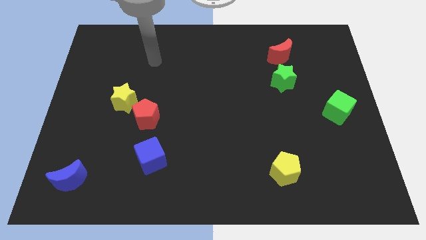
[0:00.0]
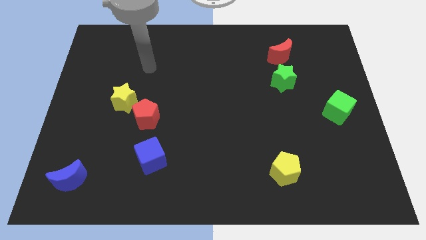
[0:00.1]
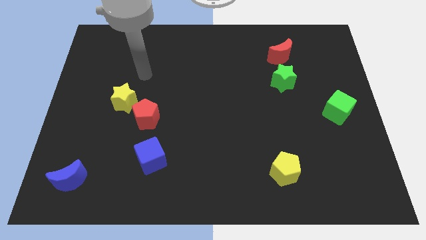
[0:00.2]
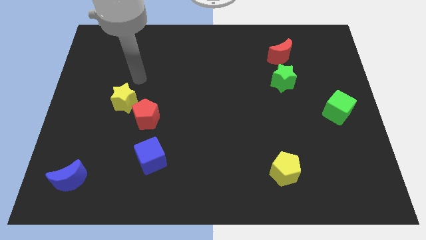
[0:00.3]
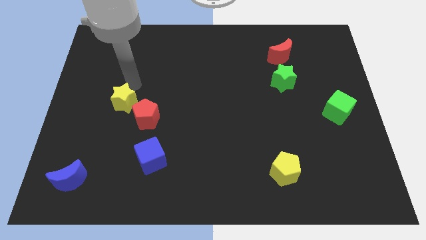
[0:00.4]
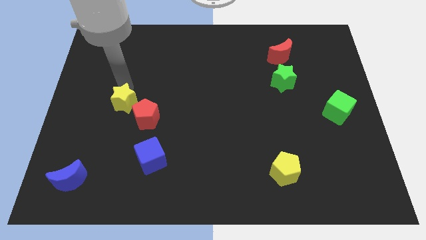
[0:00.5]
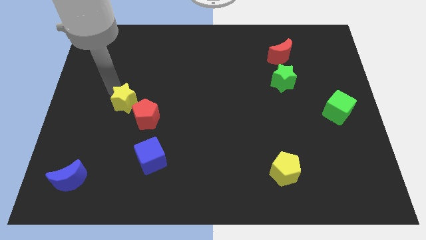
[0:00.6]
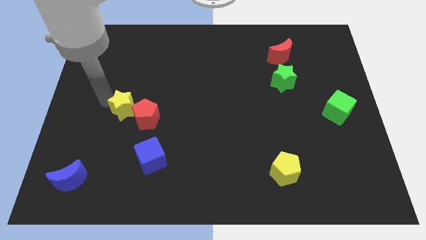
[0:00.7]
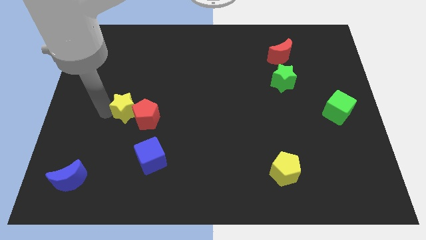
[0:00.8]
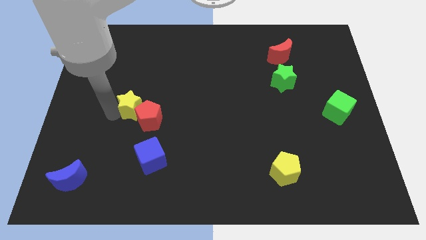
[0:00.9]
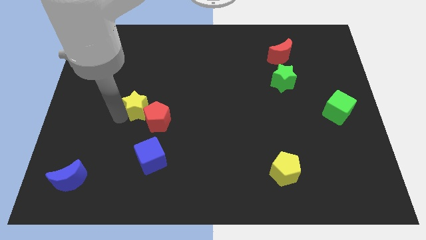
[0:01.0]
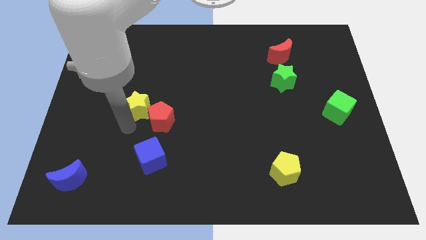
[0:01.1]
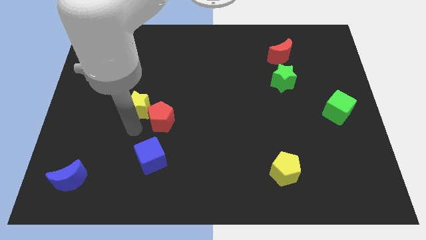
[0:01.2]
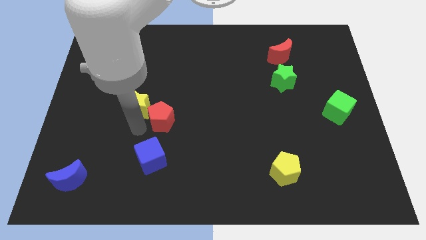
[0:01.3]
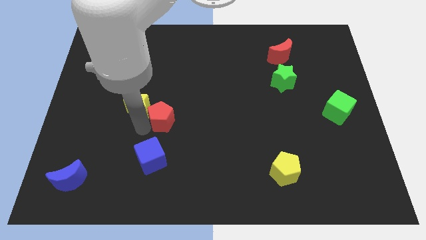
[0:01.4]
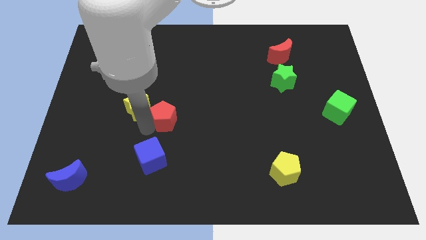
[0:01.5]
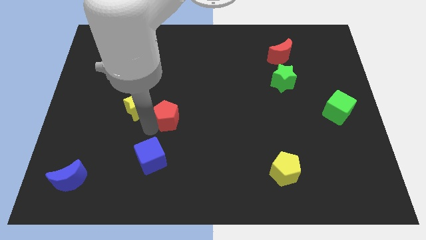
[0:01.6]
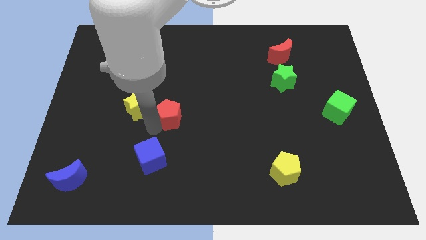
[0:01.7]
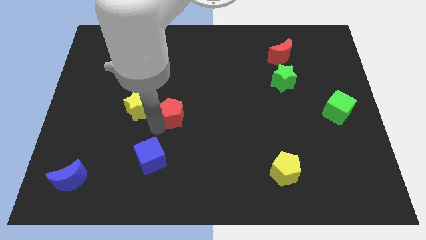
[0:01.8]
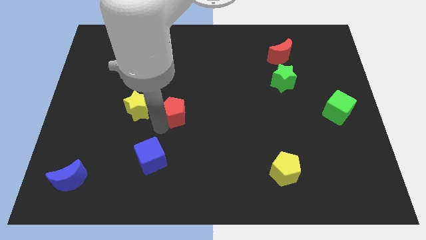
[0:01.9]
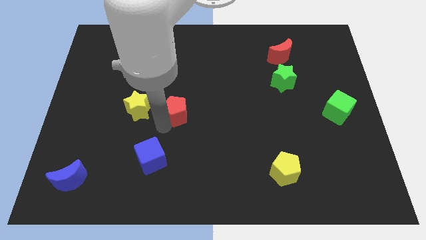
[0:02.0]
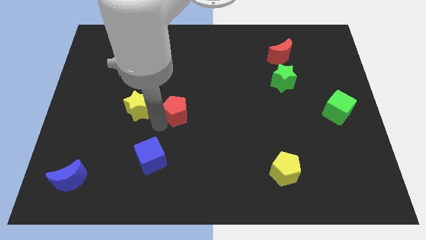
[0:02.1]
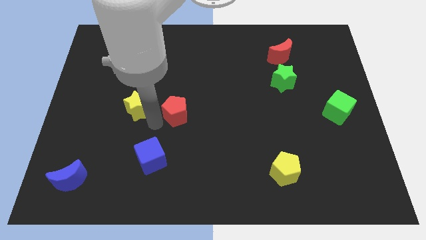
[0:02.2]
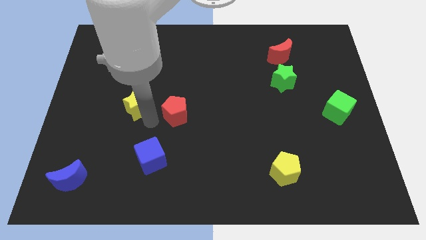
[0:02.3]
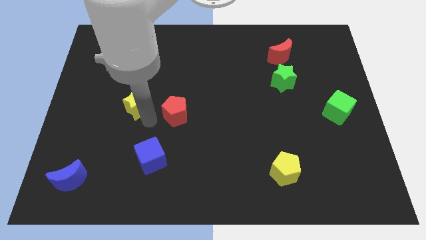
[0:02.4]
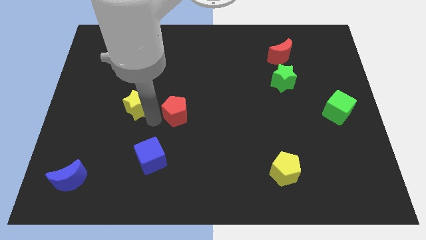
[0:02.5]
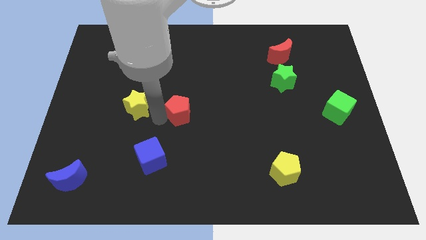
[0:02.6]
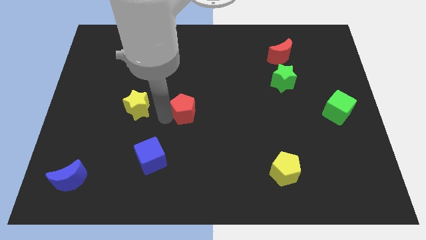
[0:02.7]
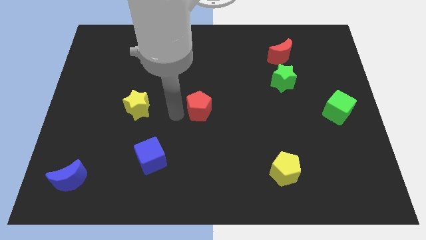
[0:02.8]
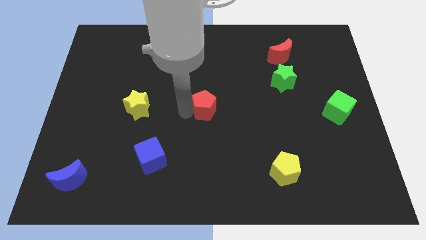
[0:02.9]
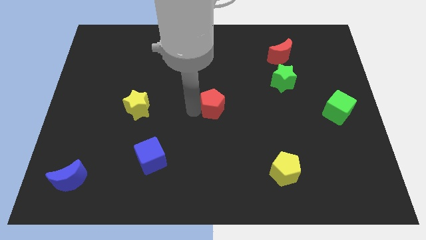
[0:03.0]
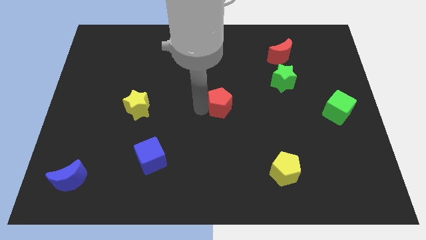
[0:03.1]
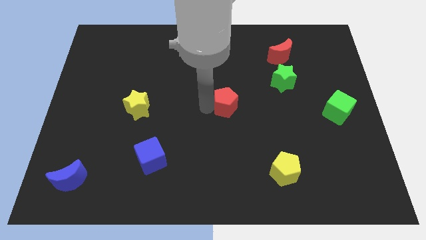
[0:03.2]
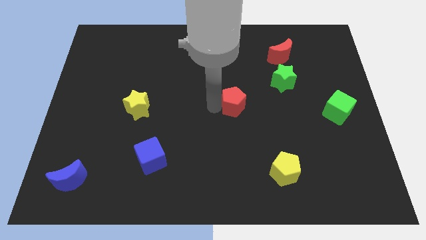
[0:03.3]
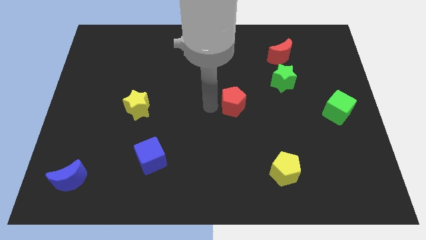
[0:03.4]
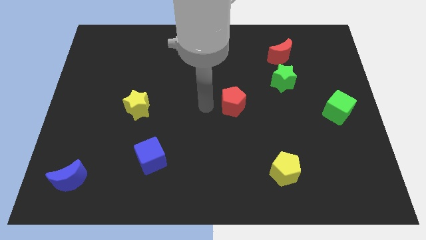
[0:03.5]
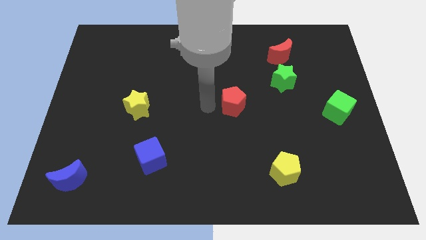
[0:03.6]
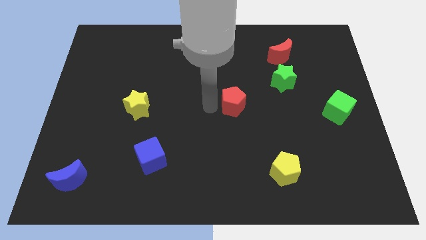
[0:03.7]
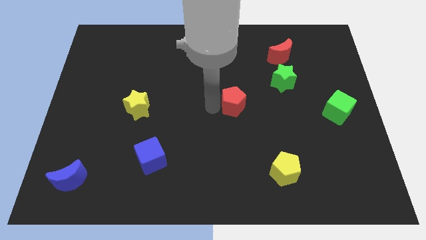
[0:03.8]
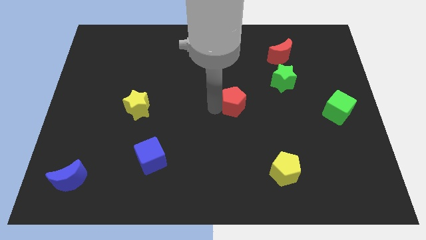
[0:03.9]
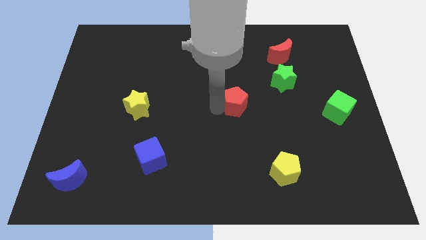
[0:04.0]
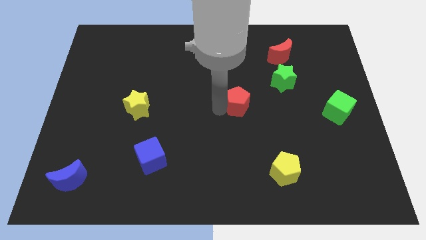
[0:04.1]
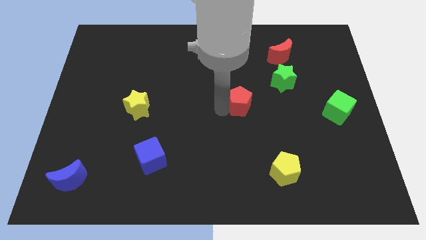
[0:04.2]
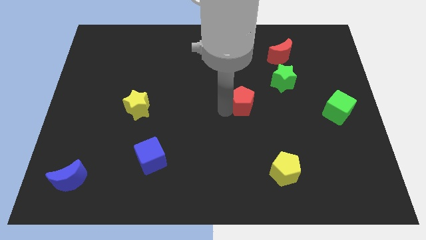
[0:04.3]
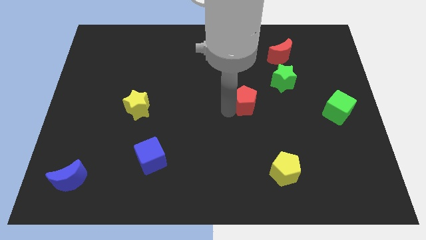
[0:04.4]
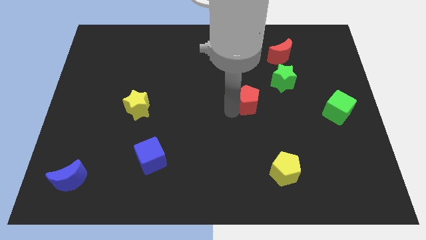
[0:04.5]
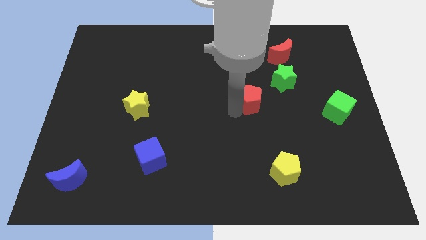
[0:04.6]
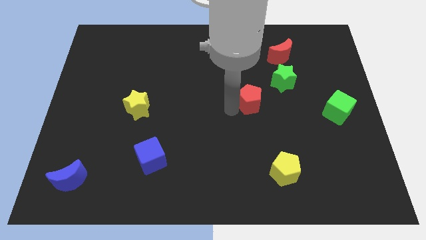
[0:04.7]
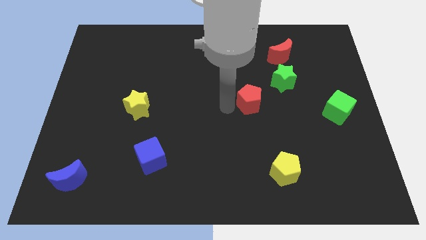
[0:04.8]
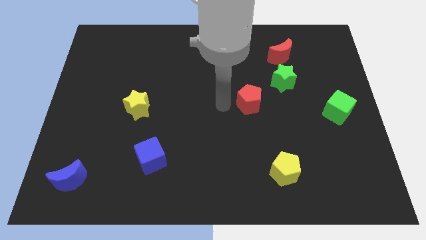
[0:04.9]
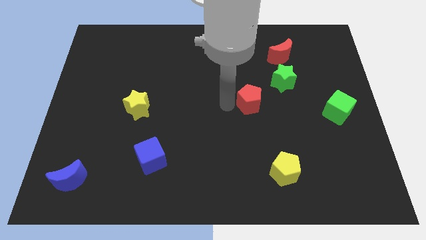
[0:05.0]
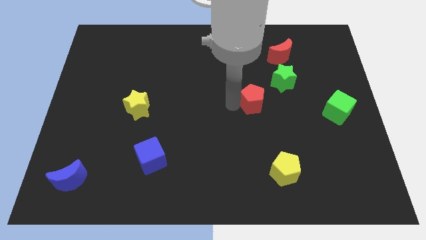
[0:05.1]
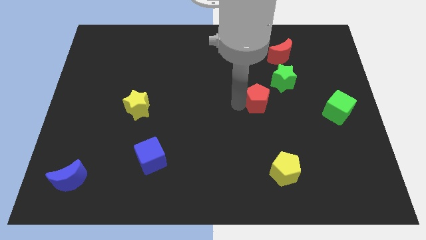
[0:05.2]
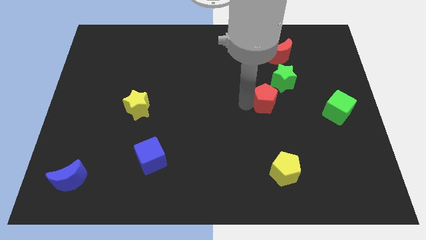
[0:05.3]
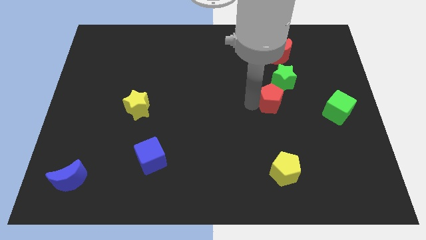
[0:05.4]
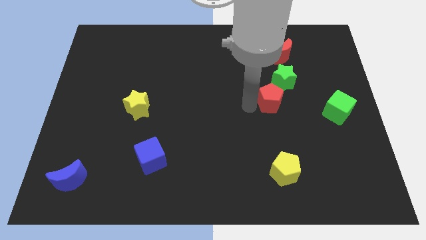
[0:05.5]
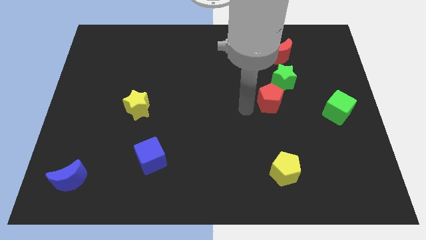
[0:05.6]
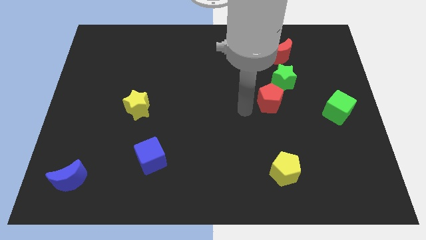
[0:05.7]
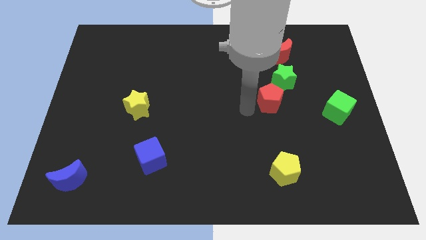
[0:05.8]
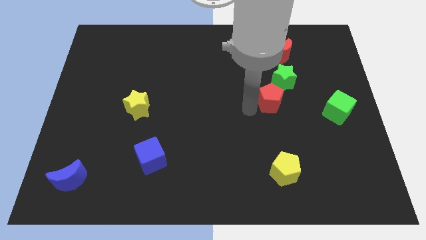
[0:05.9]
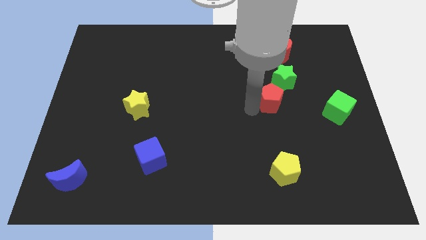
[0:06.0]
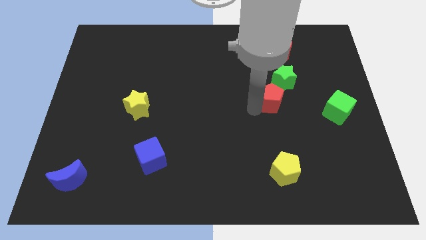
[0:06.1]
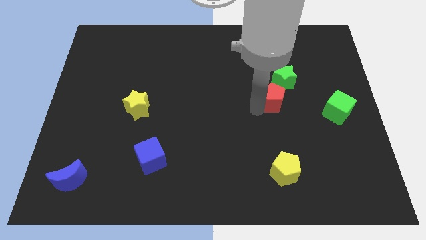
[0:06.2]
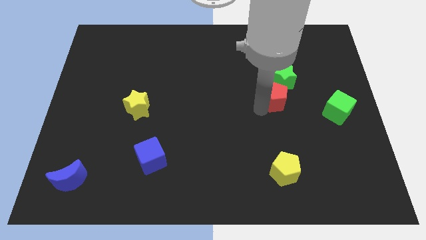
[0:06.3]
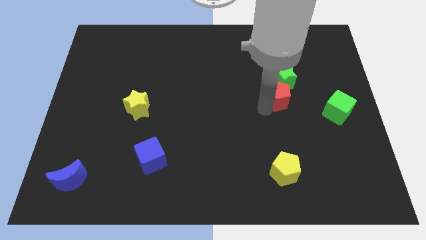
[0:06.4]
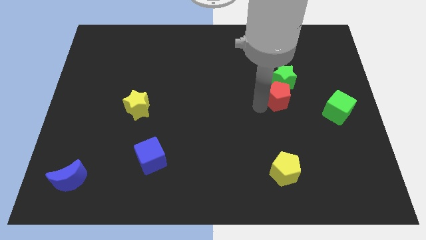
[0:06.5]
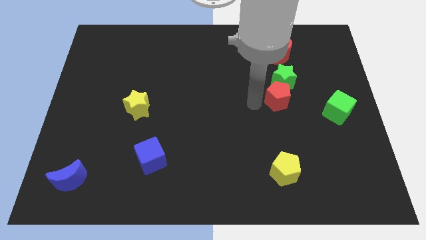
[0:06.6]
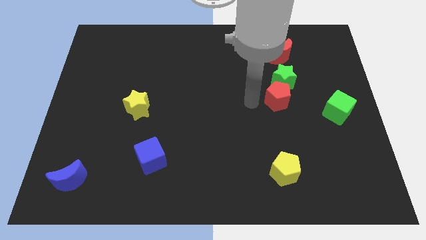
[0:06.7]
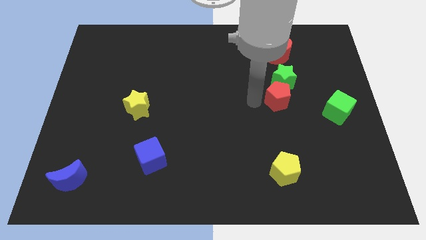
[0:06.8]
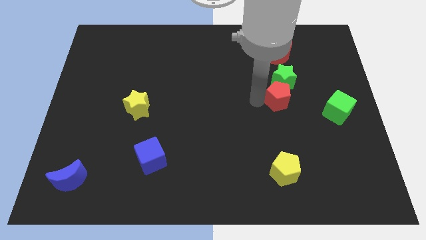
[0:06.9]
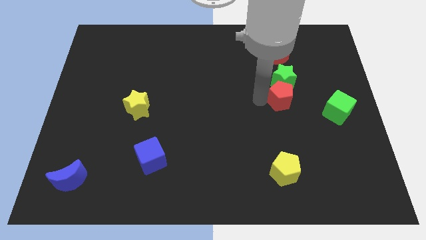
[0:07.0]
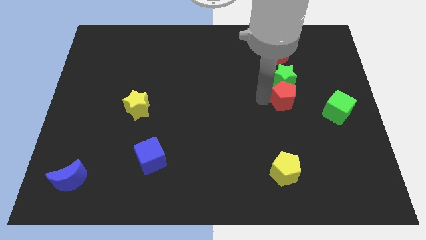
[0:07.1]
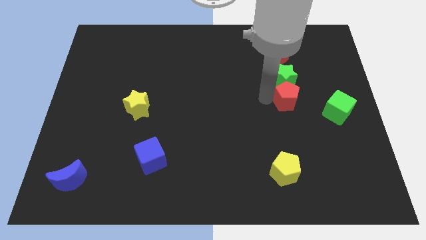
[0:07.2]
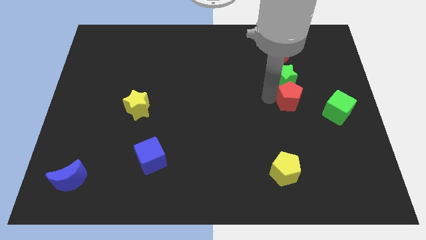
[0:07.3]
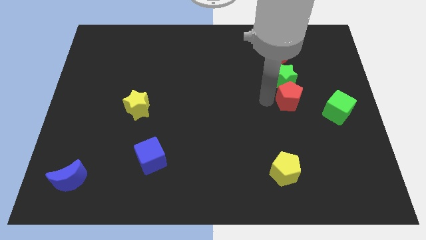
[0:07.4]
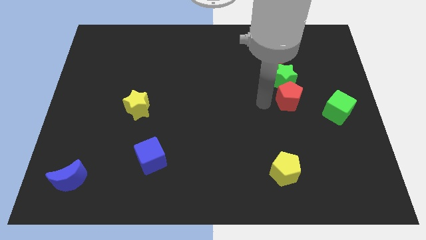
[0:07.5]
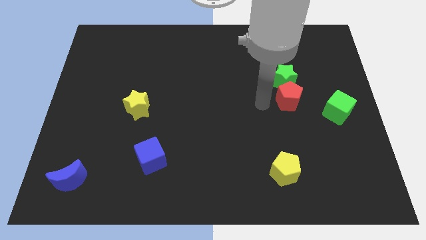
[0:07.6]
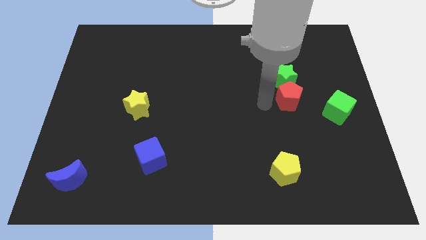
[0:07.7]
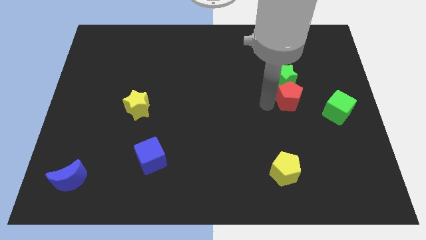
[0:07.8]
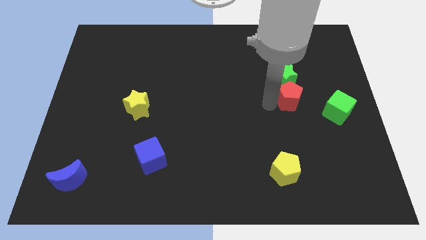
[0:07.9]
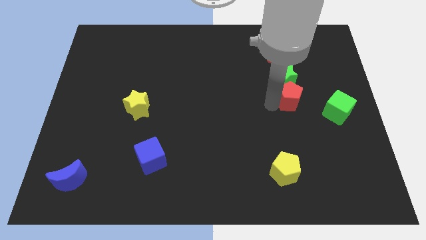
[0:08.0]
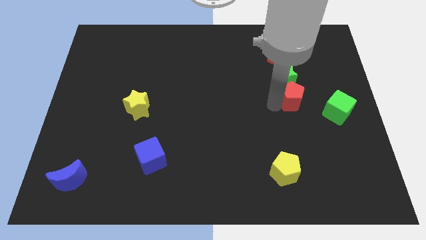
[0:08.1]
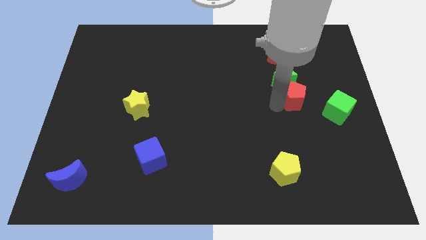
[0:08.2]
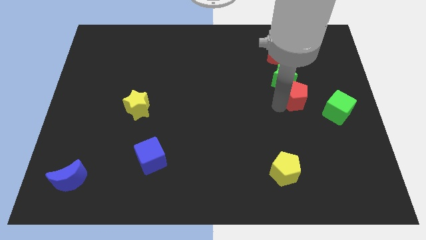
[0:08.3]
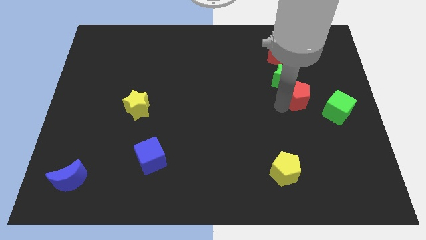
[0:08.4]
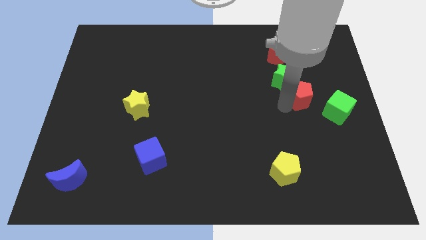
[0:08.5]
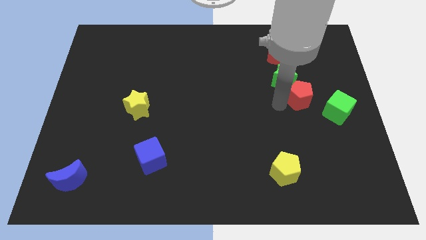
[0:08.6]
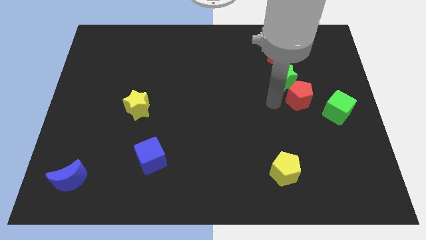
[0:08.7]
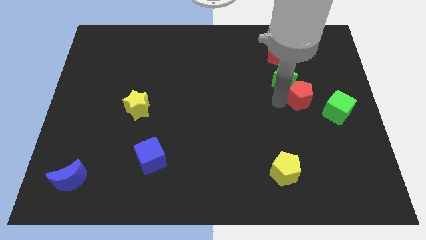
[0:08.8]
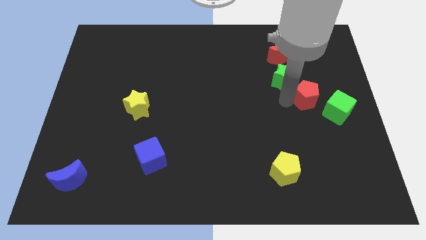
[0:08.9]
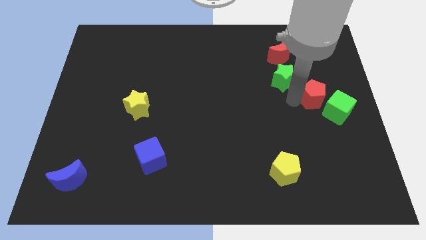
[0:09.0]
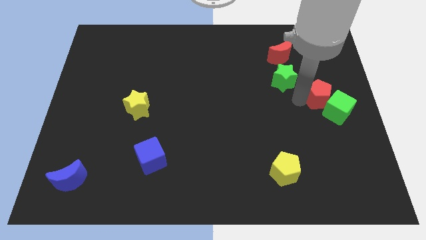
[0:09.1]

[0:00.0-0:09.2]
slide the red pentagon to the center right
